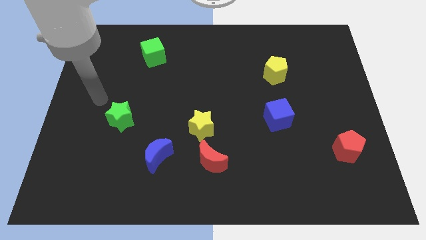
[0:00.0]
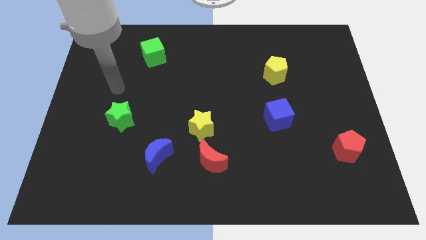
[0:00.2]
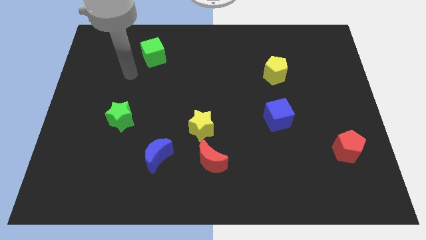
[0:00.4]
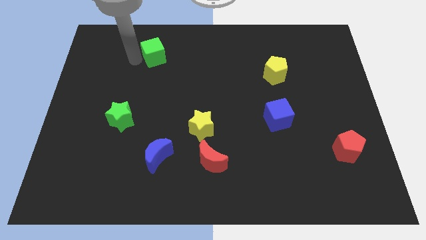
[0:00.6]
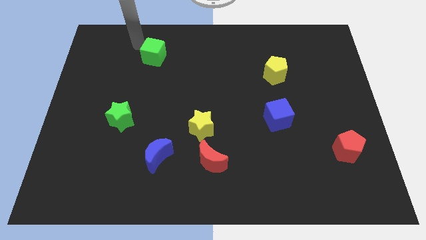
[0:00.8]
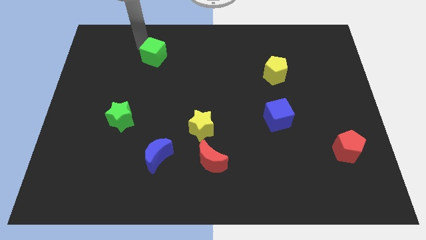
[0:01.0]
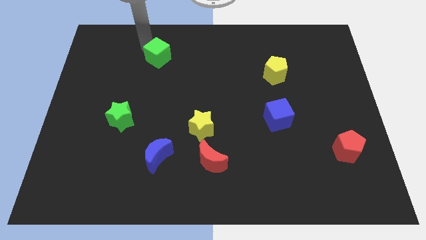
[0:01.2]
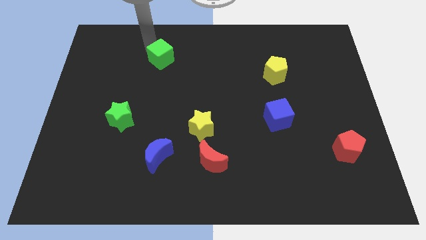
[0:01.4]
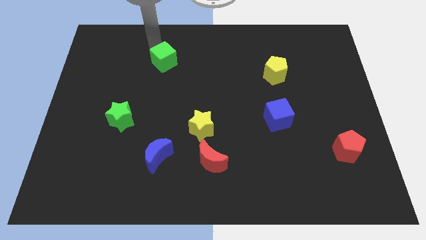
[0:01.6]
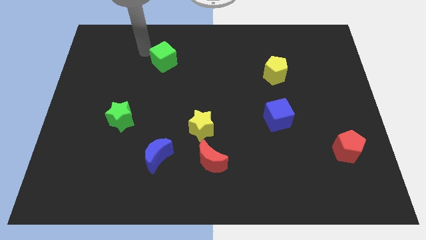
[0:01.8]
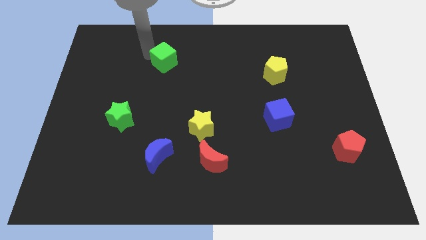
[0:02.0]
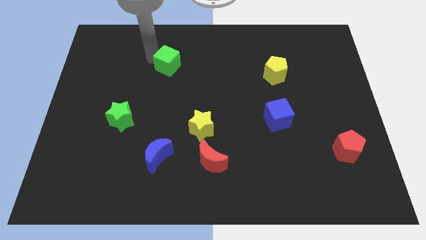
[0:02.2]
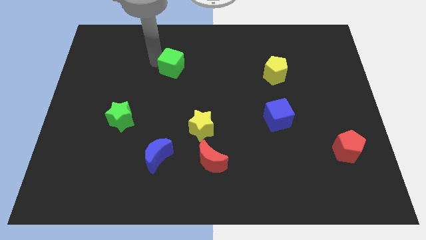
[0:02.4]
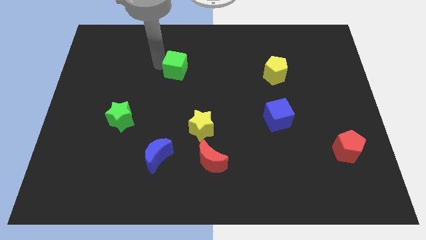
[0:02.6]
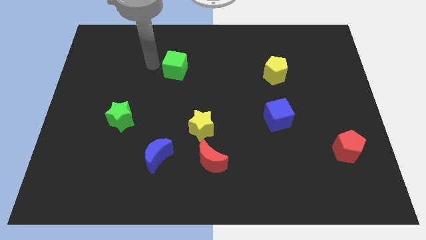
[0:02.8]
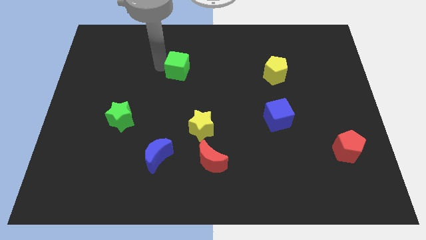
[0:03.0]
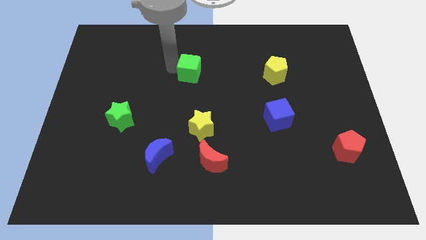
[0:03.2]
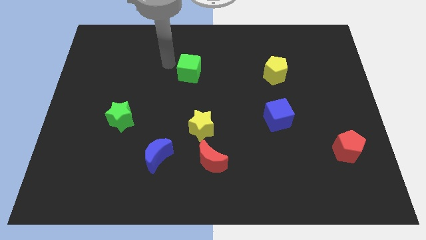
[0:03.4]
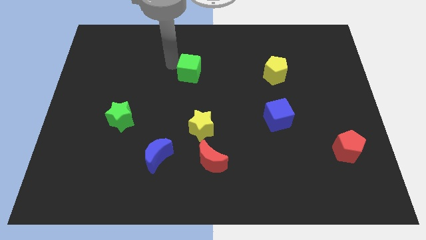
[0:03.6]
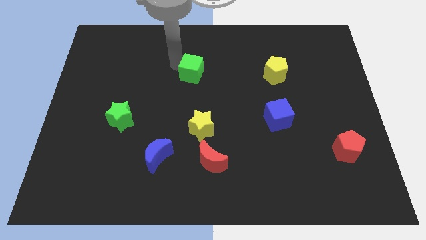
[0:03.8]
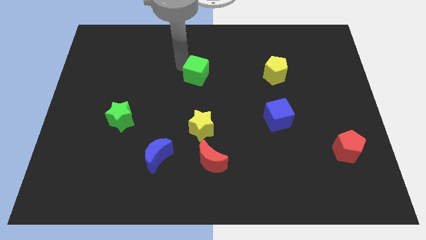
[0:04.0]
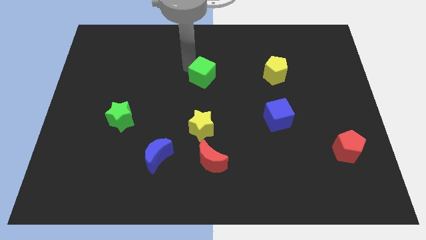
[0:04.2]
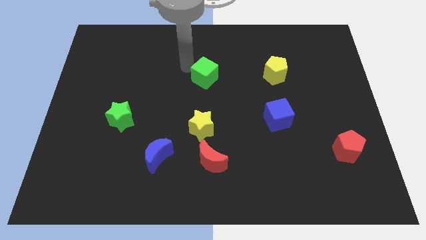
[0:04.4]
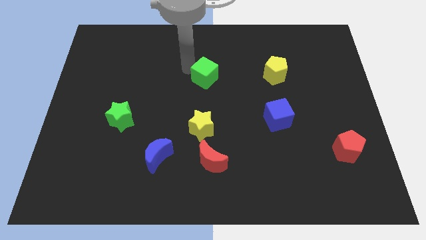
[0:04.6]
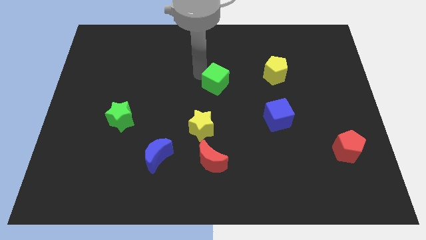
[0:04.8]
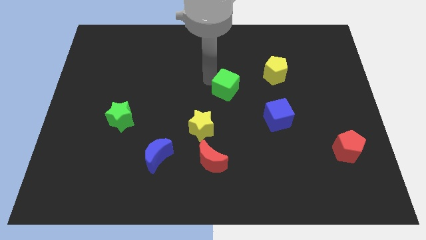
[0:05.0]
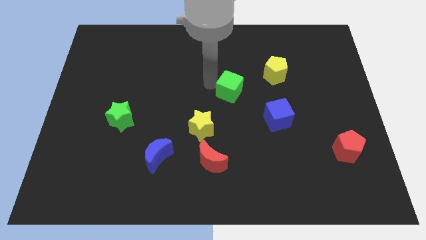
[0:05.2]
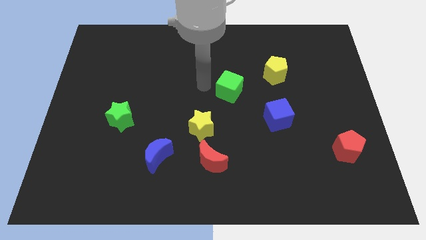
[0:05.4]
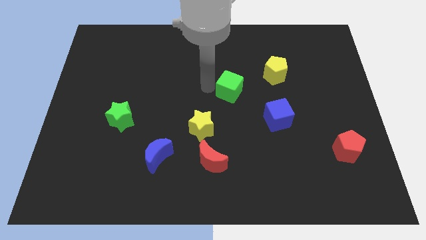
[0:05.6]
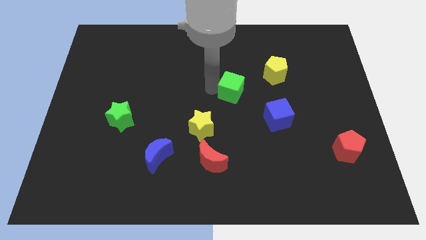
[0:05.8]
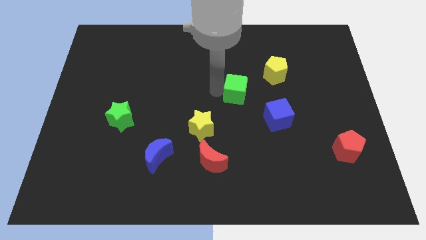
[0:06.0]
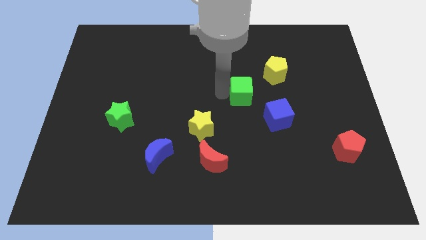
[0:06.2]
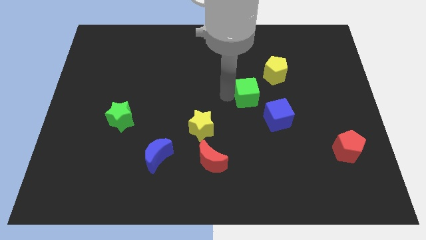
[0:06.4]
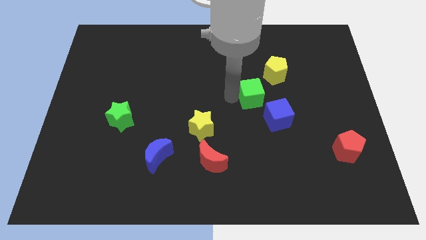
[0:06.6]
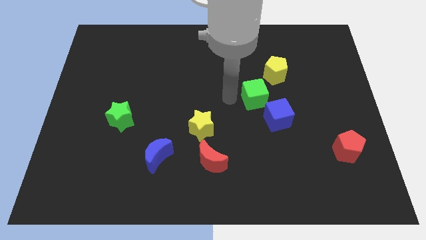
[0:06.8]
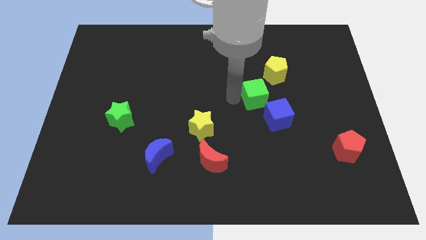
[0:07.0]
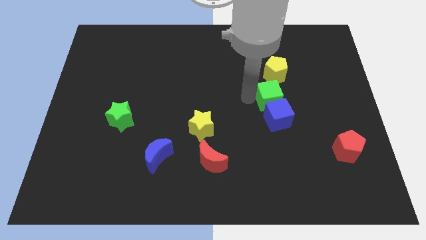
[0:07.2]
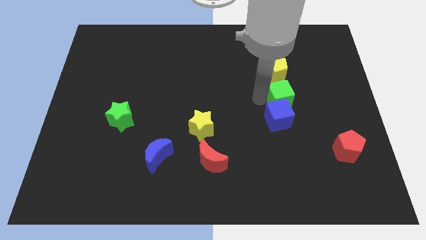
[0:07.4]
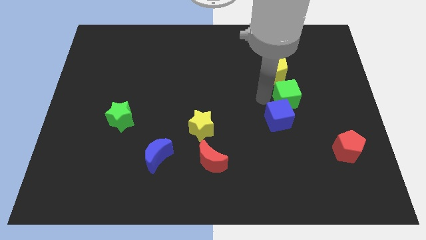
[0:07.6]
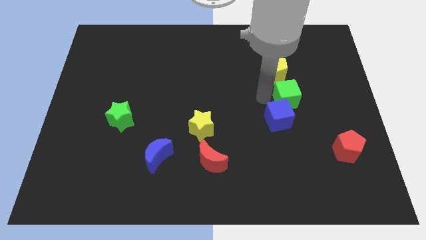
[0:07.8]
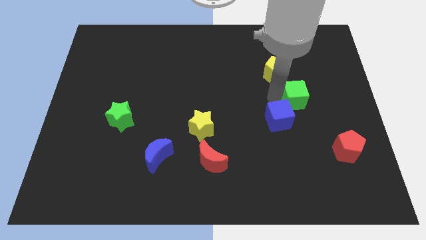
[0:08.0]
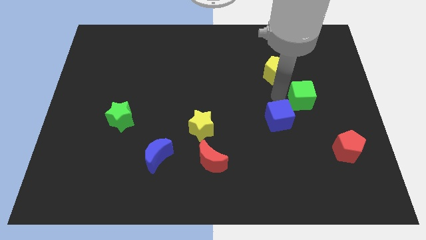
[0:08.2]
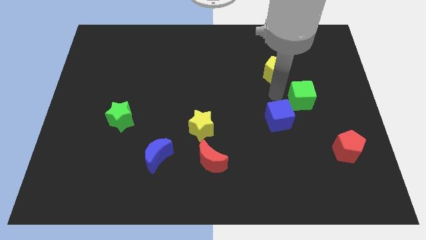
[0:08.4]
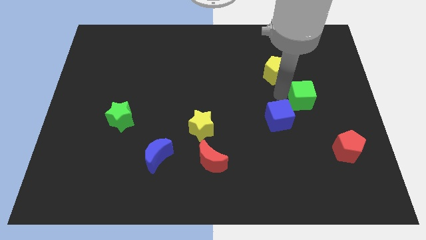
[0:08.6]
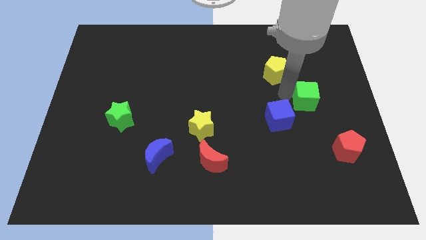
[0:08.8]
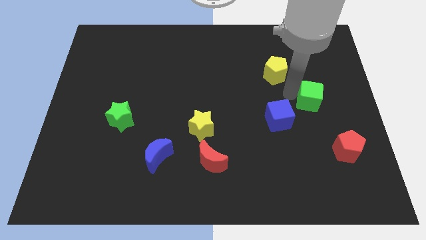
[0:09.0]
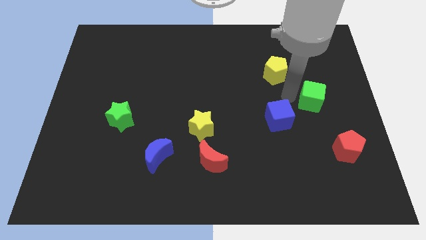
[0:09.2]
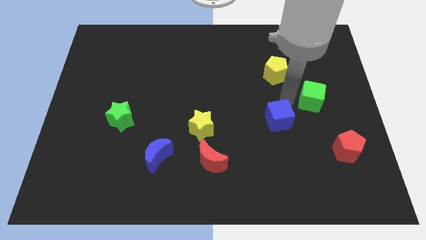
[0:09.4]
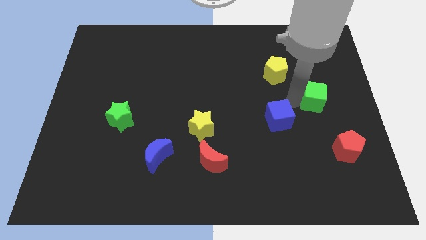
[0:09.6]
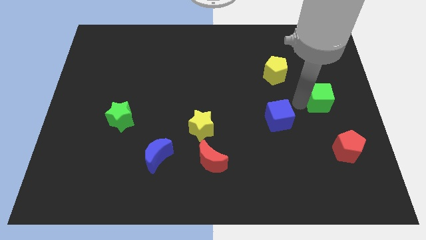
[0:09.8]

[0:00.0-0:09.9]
move the green cube to the center right

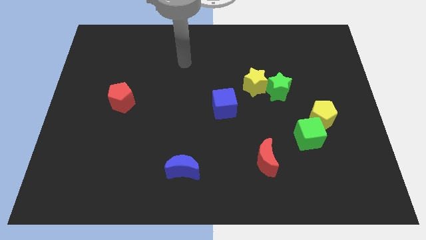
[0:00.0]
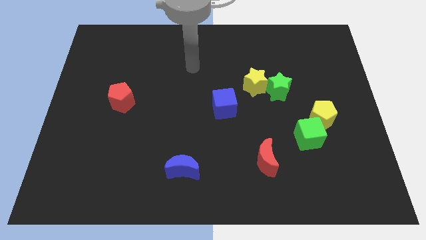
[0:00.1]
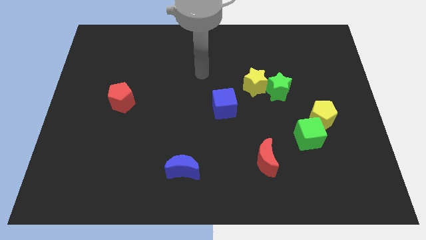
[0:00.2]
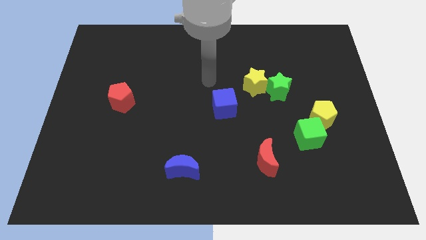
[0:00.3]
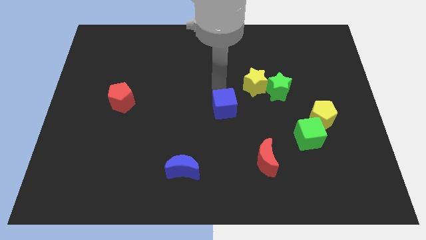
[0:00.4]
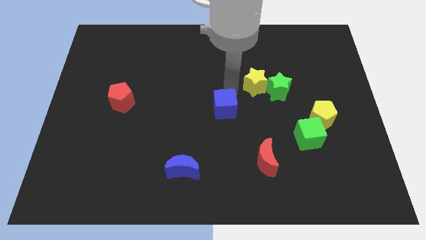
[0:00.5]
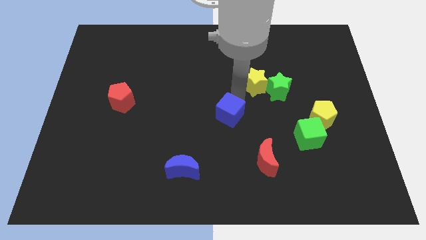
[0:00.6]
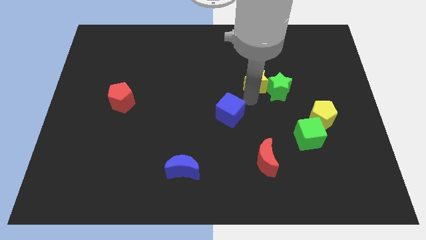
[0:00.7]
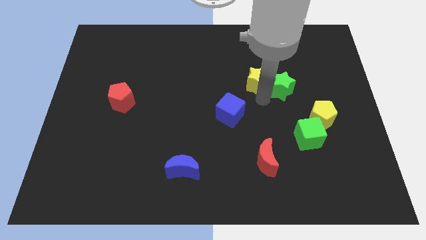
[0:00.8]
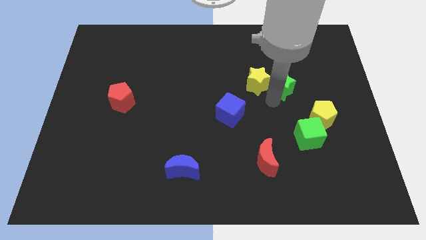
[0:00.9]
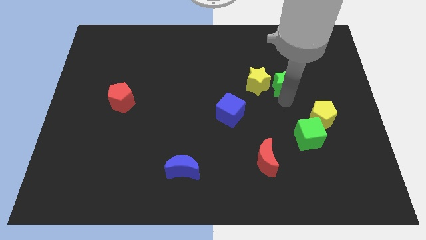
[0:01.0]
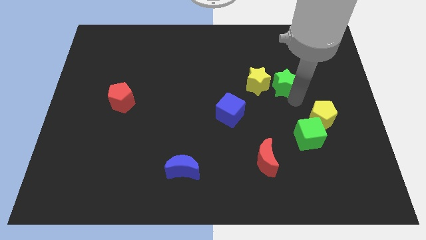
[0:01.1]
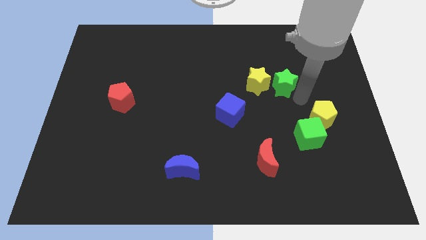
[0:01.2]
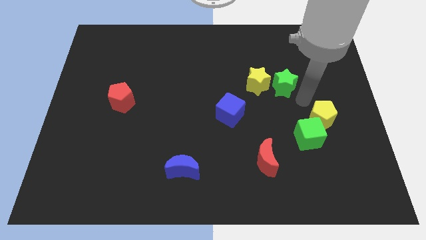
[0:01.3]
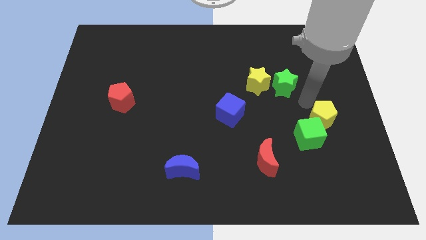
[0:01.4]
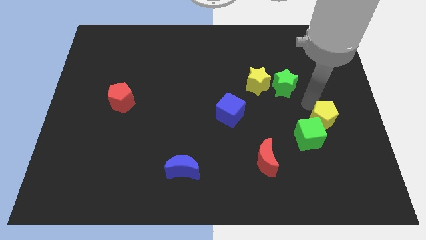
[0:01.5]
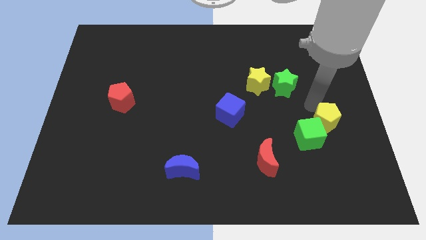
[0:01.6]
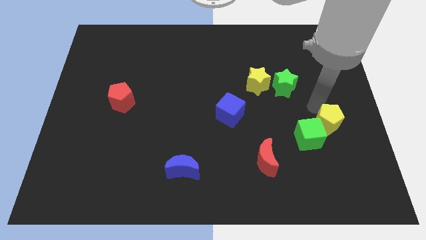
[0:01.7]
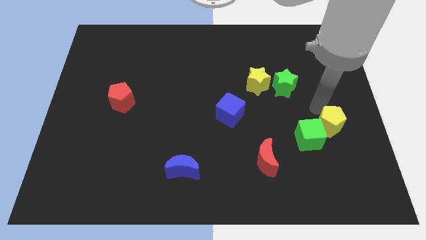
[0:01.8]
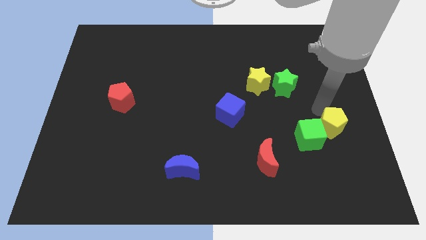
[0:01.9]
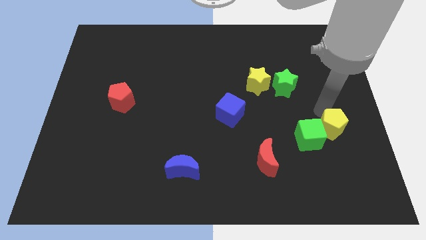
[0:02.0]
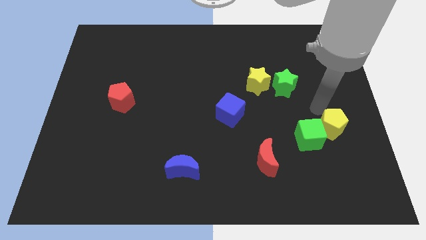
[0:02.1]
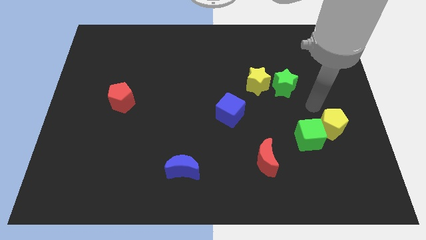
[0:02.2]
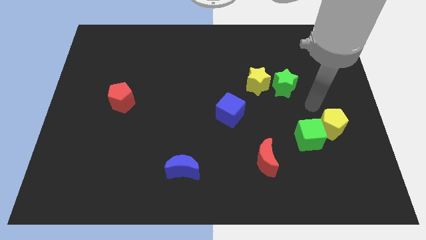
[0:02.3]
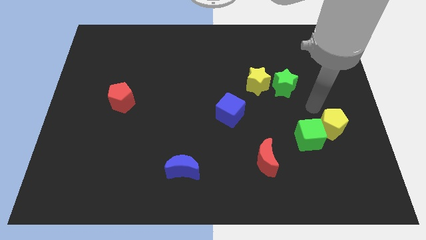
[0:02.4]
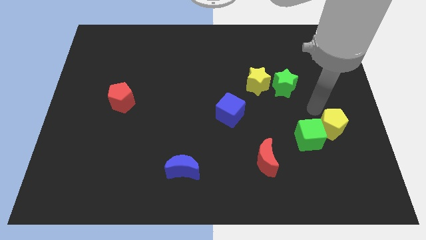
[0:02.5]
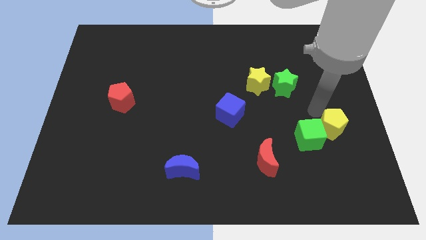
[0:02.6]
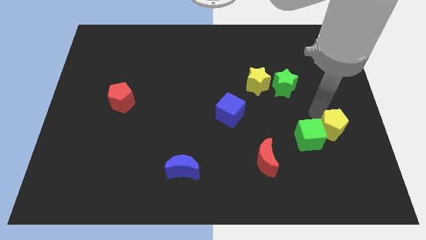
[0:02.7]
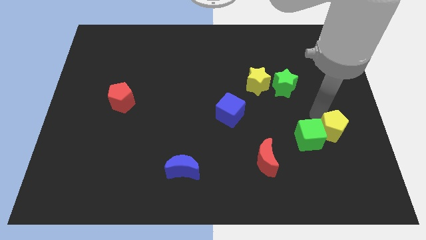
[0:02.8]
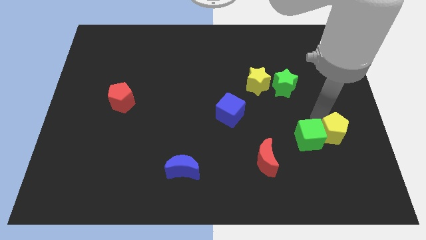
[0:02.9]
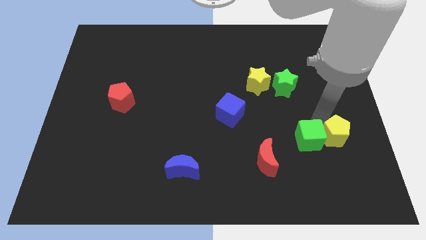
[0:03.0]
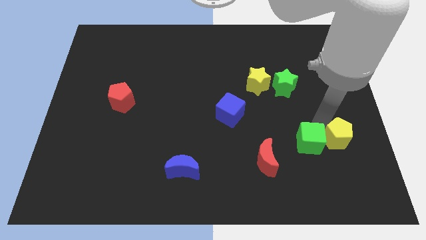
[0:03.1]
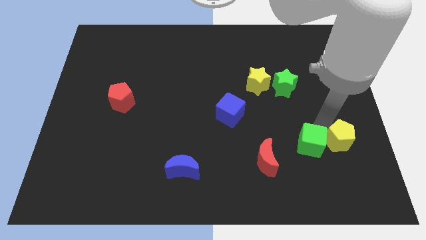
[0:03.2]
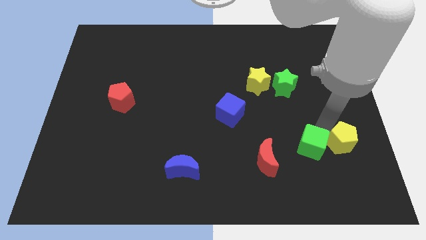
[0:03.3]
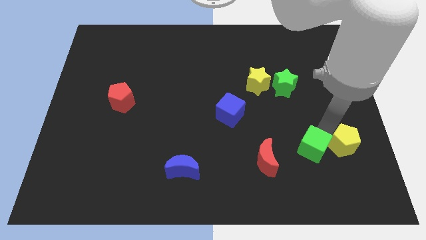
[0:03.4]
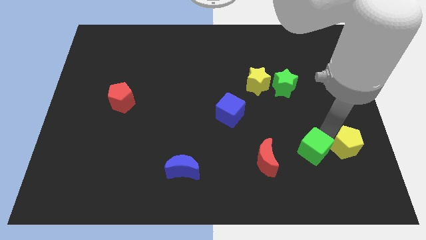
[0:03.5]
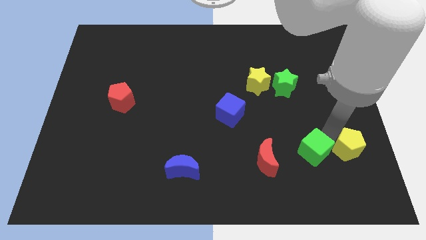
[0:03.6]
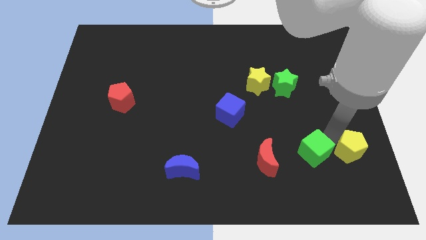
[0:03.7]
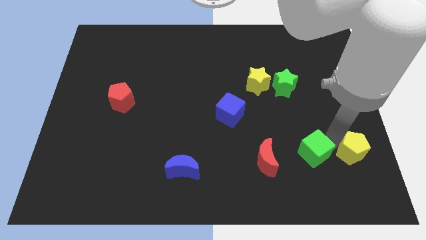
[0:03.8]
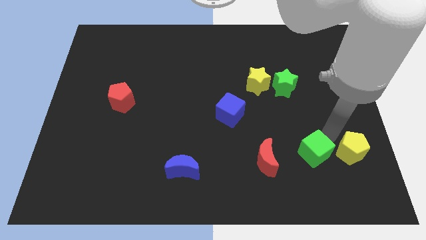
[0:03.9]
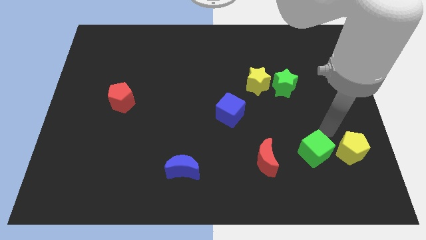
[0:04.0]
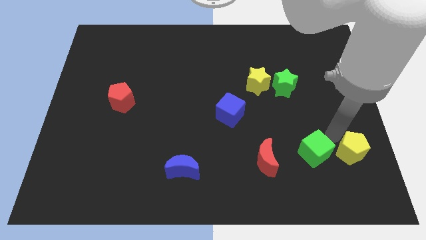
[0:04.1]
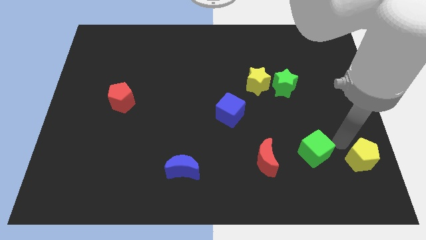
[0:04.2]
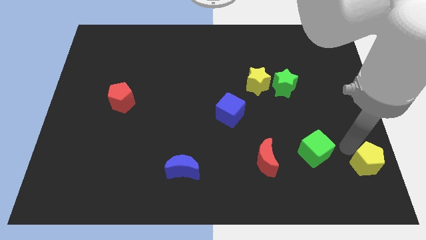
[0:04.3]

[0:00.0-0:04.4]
put the yellow pentagon to the bottom right
